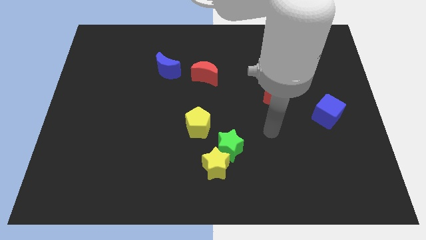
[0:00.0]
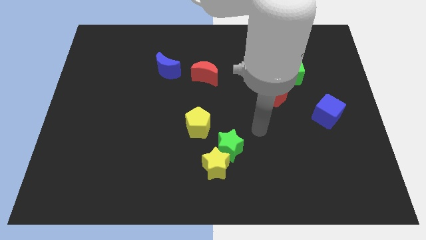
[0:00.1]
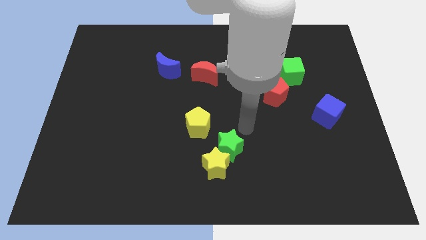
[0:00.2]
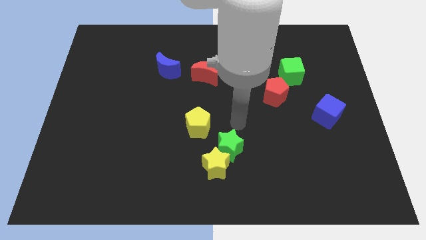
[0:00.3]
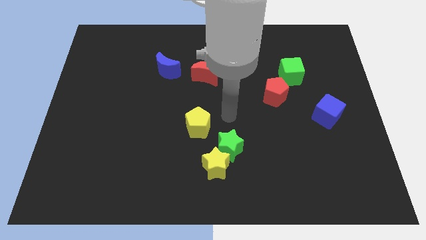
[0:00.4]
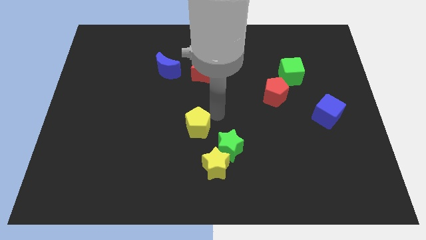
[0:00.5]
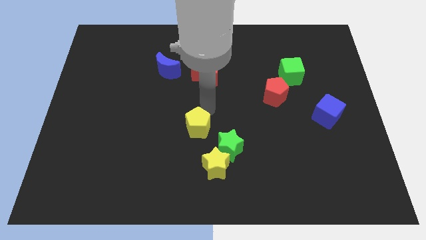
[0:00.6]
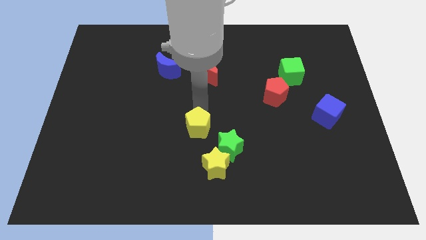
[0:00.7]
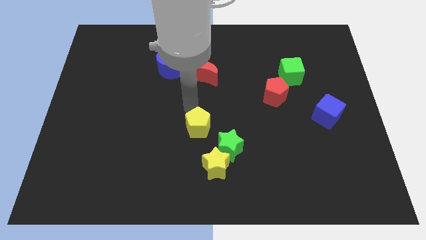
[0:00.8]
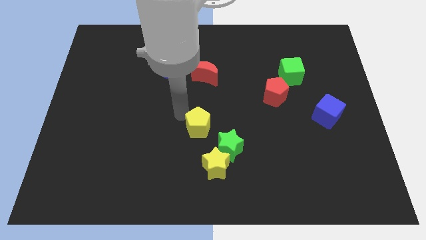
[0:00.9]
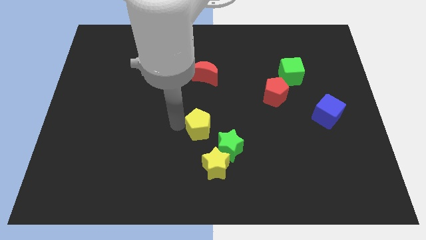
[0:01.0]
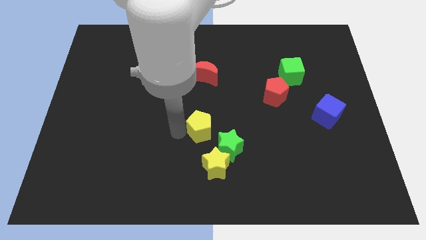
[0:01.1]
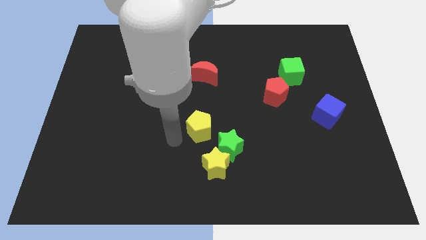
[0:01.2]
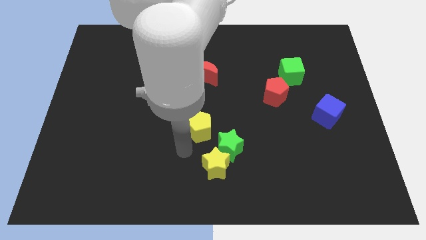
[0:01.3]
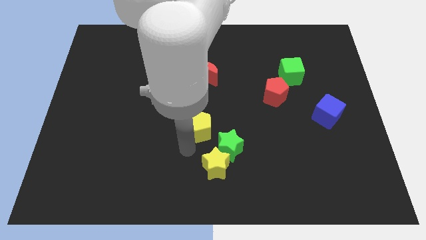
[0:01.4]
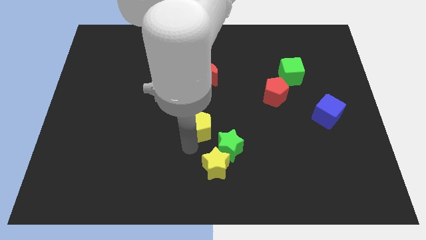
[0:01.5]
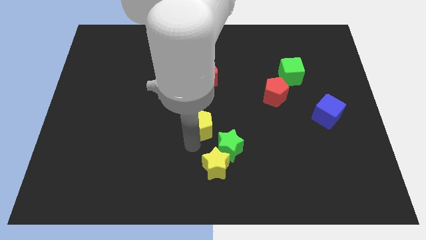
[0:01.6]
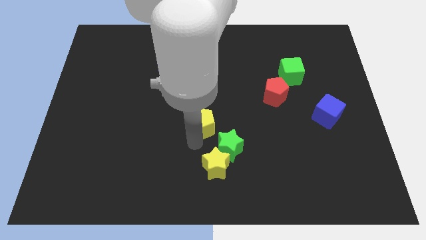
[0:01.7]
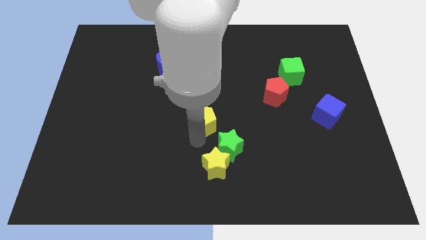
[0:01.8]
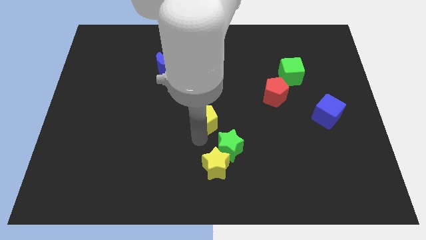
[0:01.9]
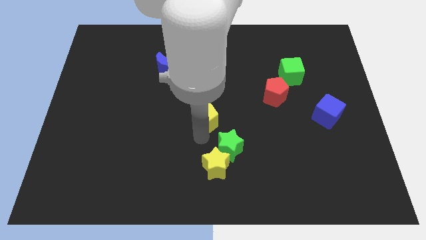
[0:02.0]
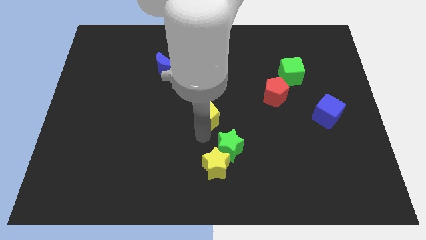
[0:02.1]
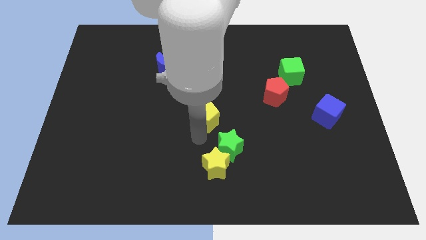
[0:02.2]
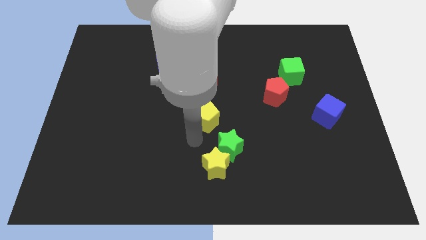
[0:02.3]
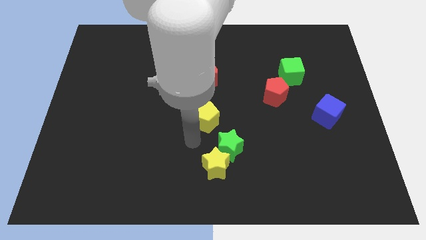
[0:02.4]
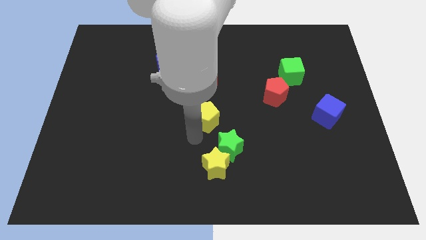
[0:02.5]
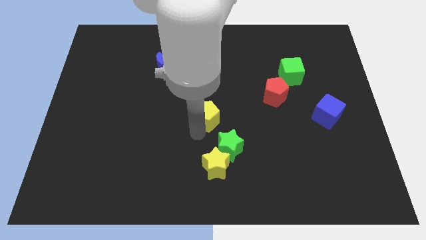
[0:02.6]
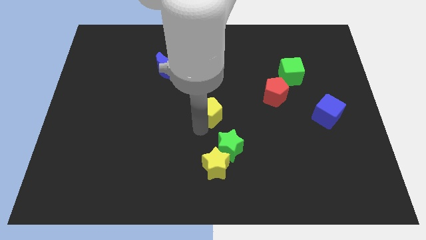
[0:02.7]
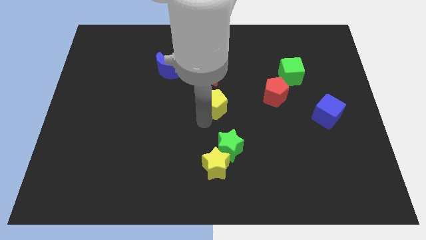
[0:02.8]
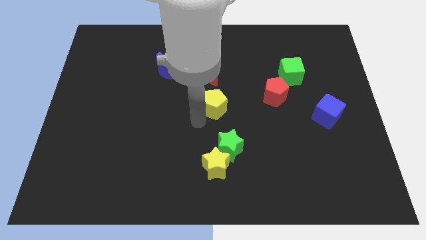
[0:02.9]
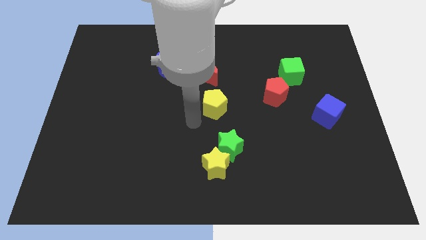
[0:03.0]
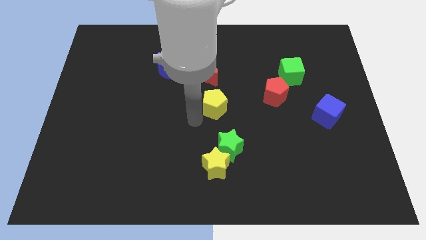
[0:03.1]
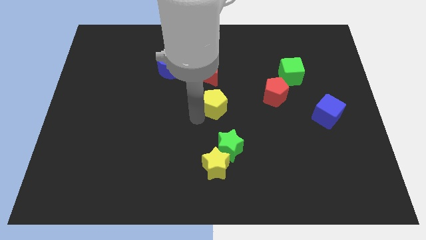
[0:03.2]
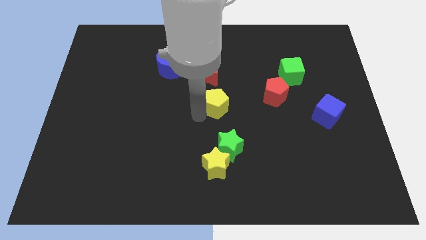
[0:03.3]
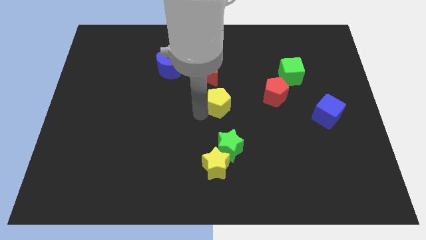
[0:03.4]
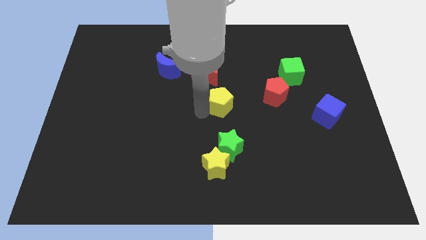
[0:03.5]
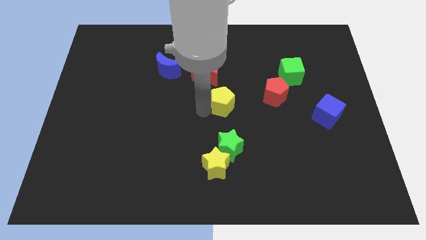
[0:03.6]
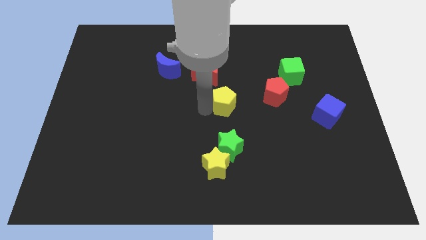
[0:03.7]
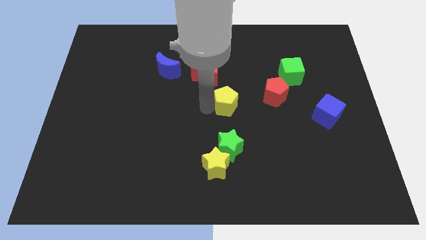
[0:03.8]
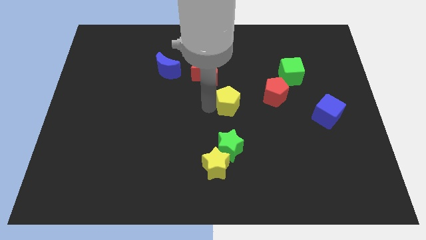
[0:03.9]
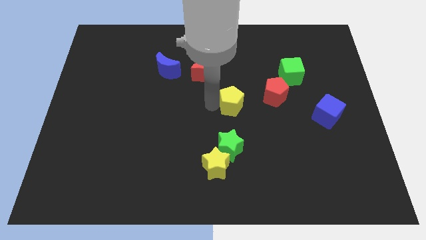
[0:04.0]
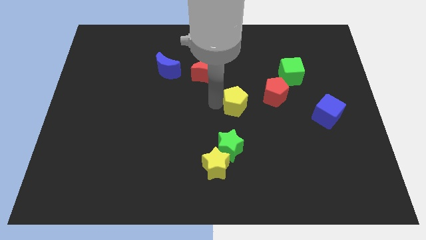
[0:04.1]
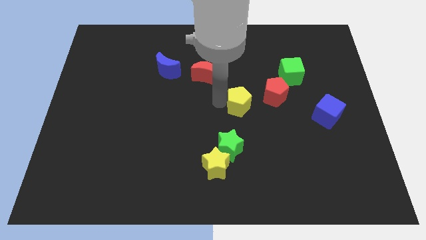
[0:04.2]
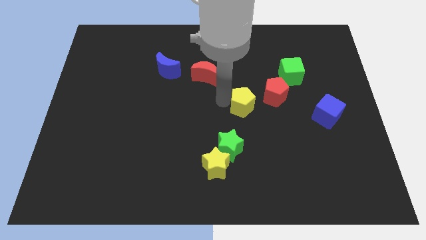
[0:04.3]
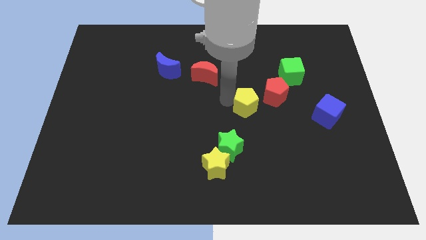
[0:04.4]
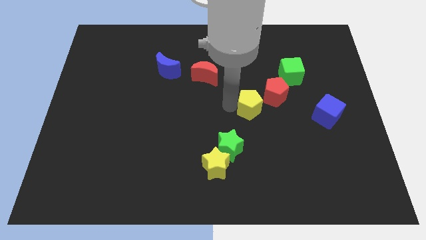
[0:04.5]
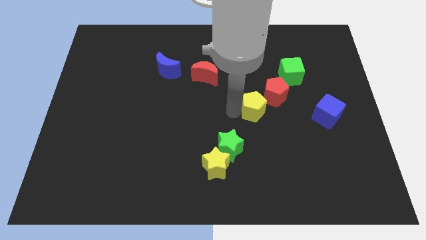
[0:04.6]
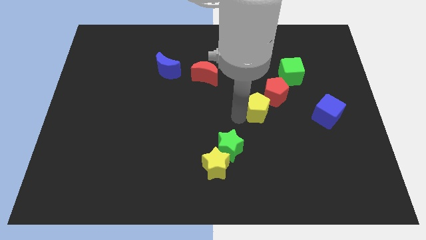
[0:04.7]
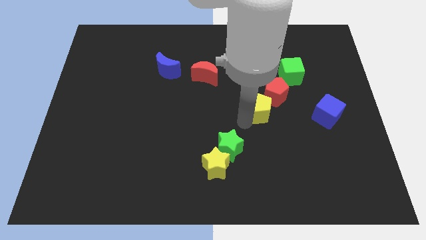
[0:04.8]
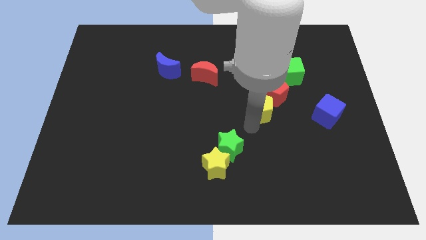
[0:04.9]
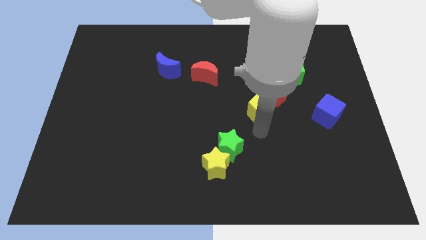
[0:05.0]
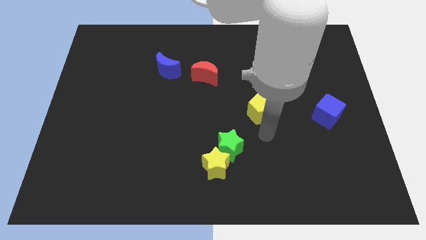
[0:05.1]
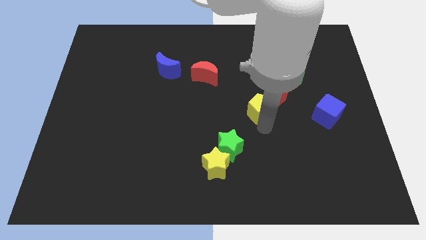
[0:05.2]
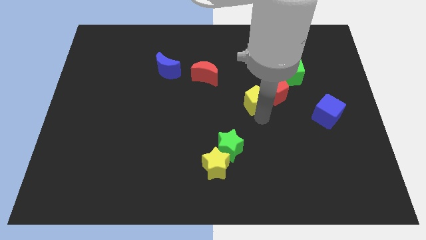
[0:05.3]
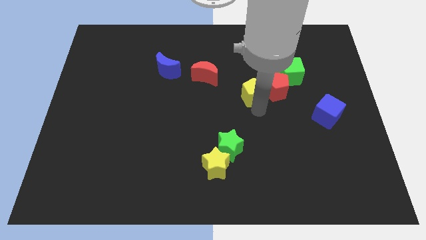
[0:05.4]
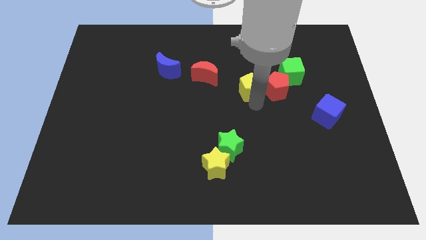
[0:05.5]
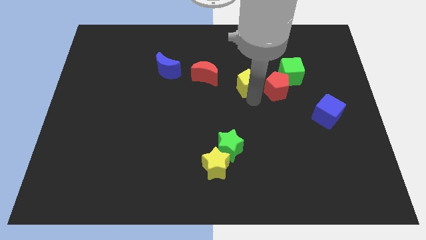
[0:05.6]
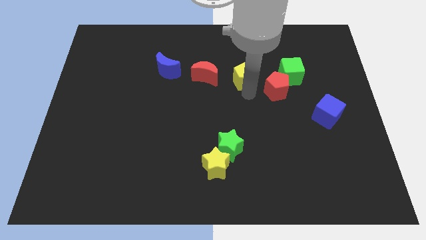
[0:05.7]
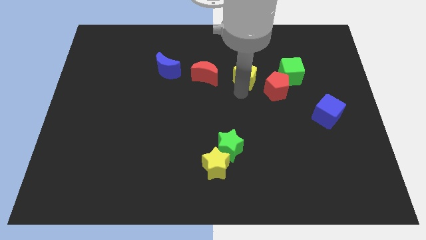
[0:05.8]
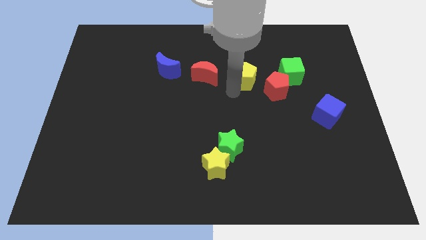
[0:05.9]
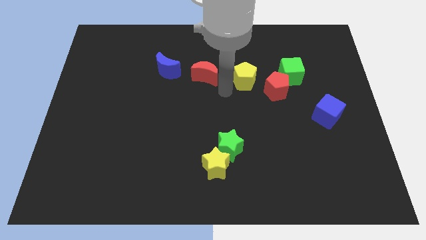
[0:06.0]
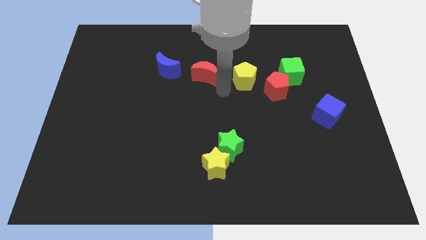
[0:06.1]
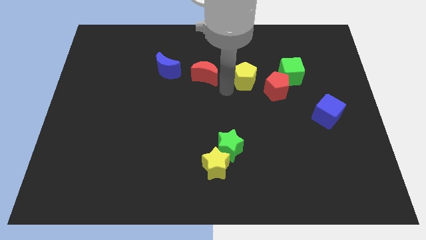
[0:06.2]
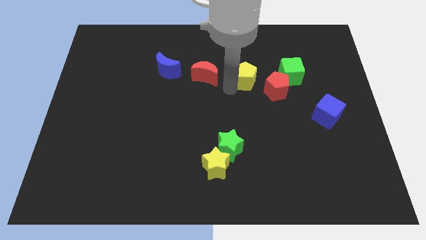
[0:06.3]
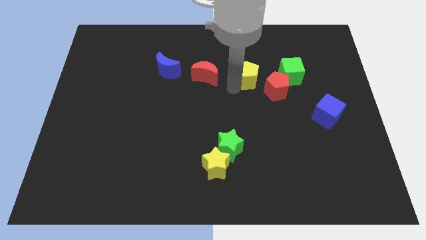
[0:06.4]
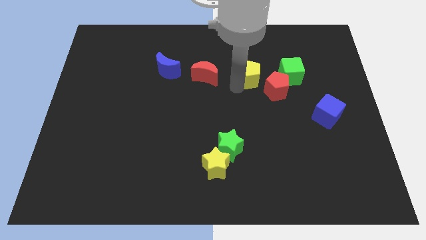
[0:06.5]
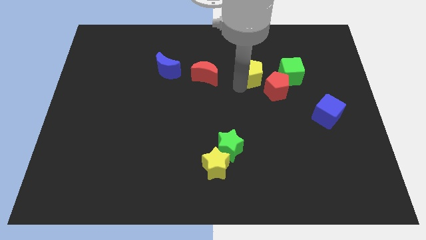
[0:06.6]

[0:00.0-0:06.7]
push the yellow pentagon upwards and right

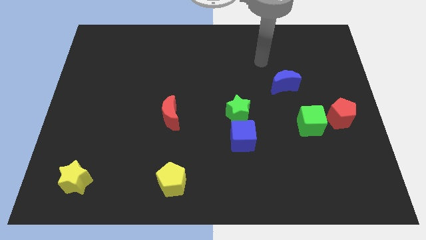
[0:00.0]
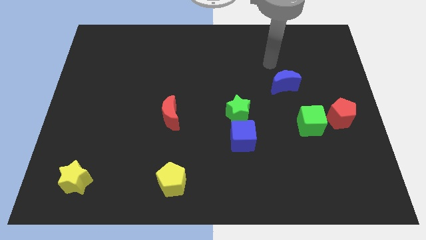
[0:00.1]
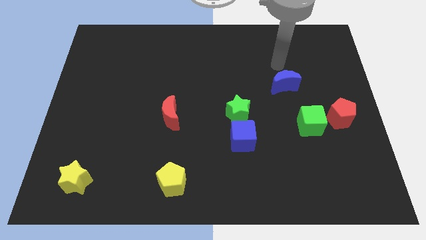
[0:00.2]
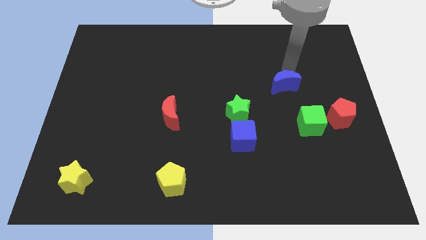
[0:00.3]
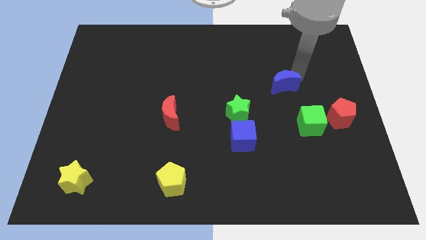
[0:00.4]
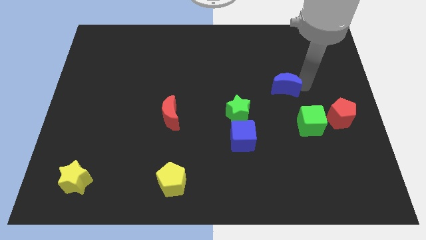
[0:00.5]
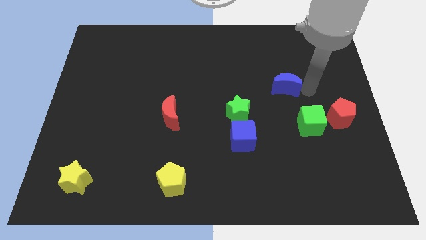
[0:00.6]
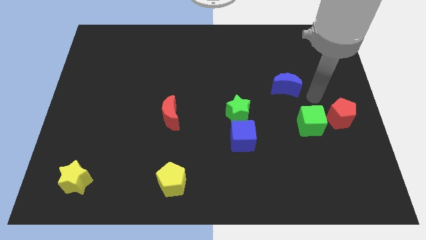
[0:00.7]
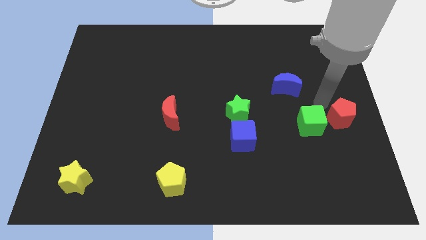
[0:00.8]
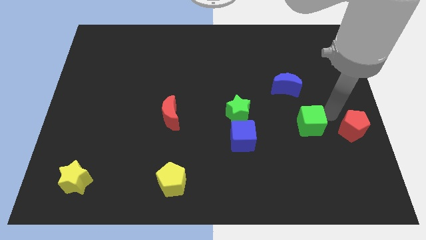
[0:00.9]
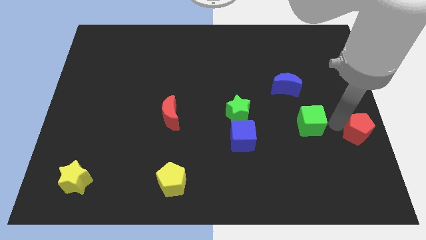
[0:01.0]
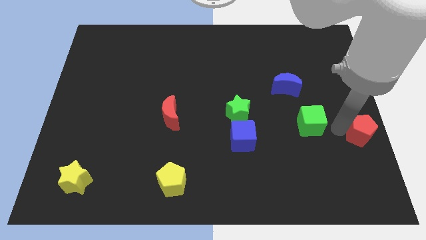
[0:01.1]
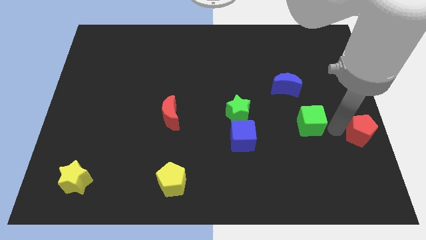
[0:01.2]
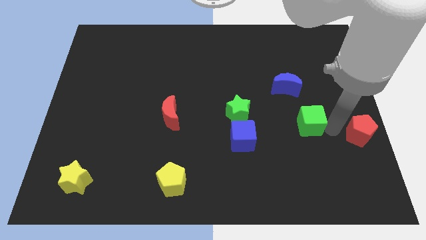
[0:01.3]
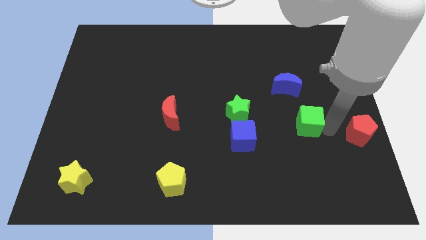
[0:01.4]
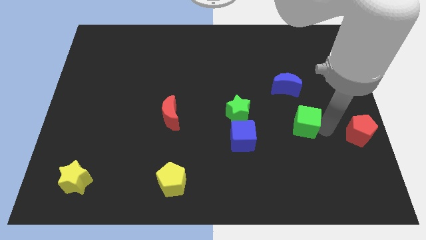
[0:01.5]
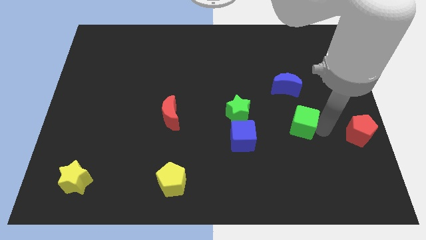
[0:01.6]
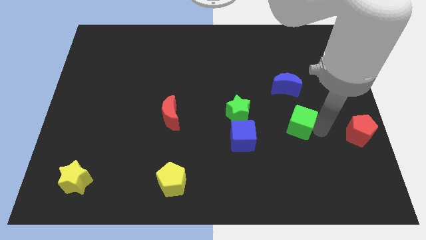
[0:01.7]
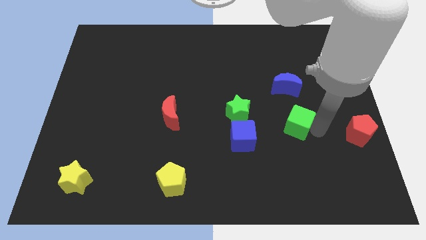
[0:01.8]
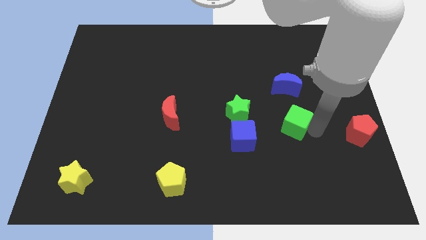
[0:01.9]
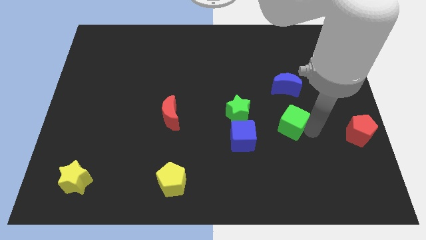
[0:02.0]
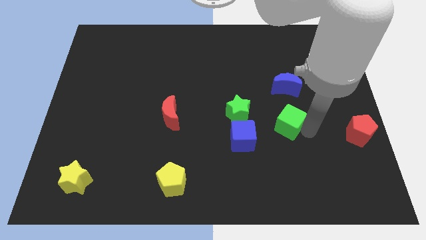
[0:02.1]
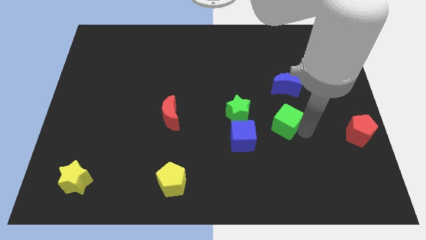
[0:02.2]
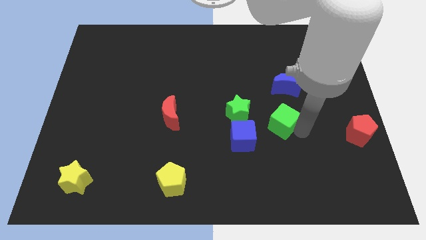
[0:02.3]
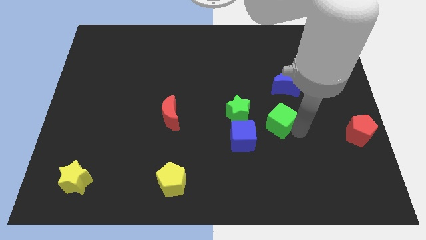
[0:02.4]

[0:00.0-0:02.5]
move the green cube a bit to the left
